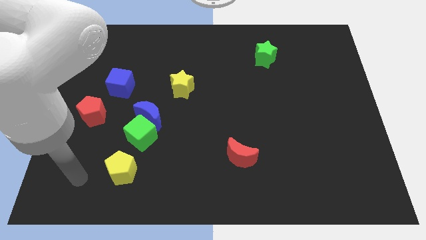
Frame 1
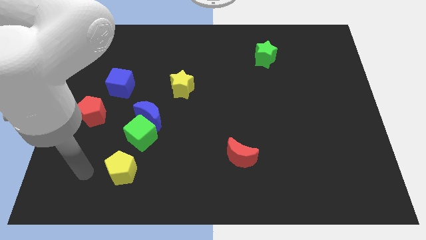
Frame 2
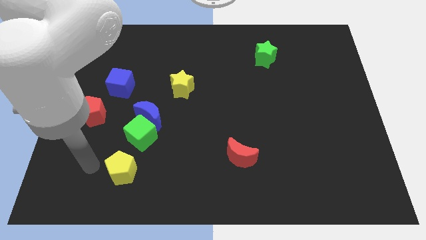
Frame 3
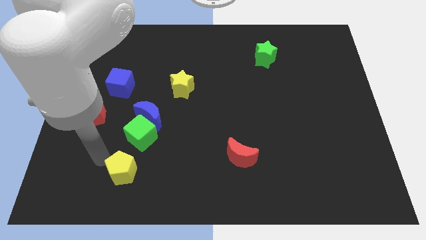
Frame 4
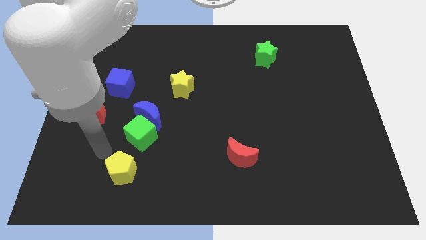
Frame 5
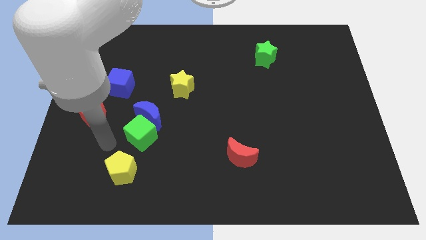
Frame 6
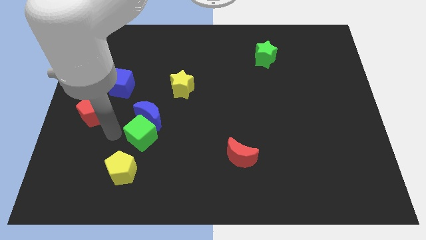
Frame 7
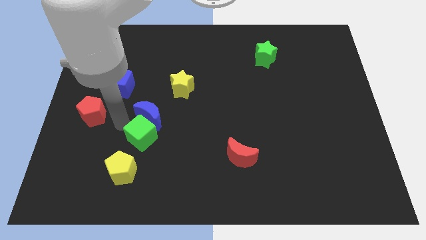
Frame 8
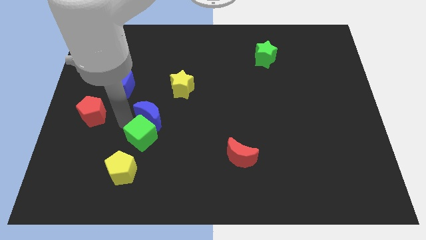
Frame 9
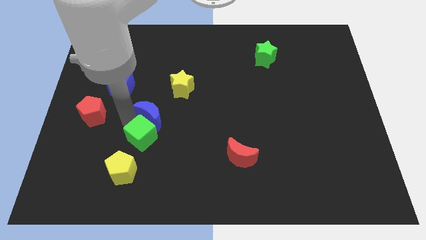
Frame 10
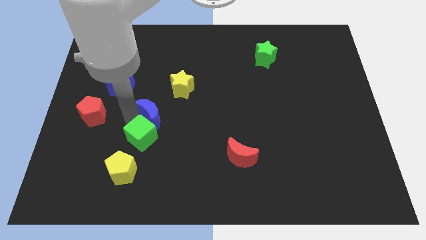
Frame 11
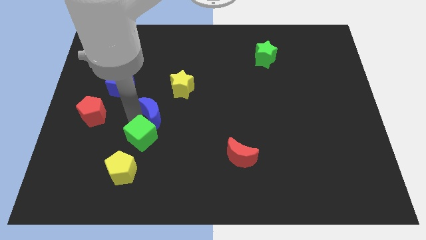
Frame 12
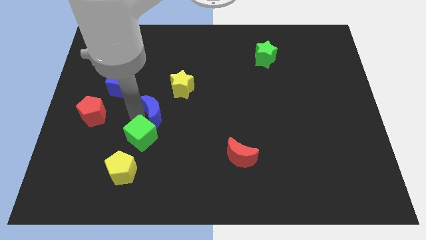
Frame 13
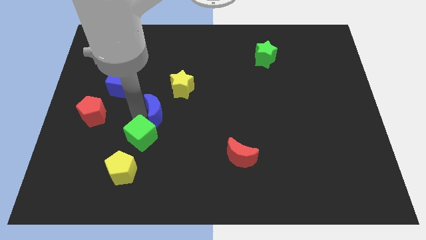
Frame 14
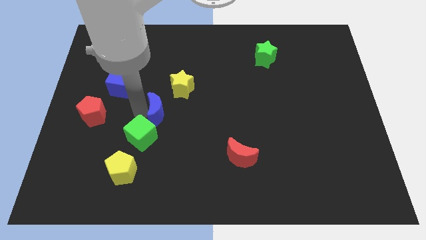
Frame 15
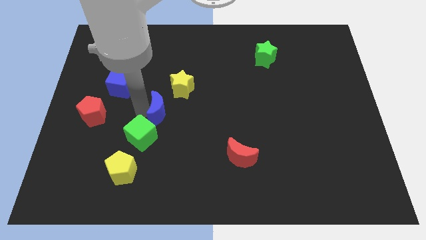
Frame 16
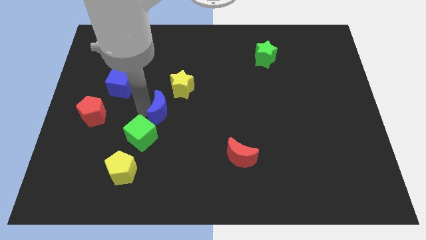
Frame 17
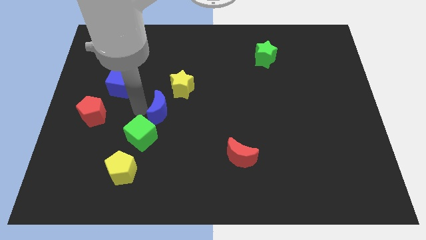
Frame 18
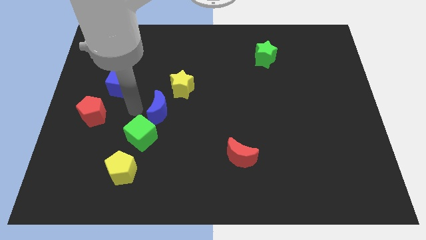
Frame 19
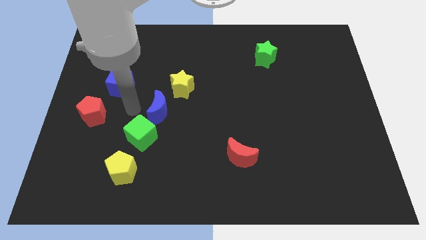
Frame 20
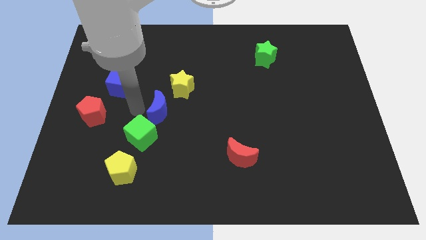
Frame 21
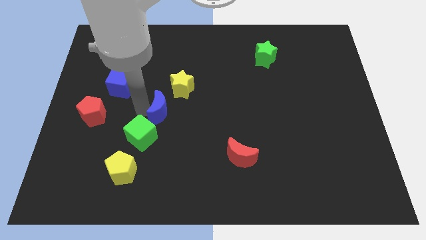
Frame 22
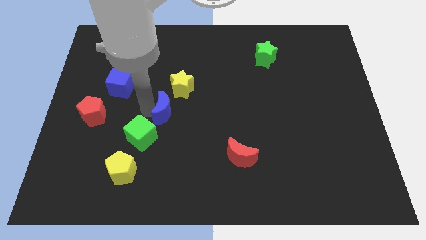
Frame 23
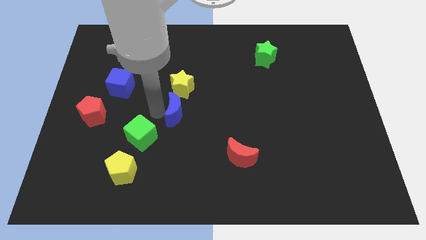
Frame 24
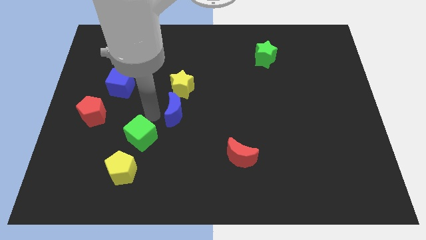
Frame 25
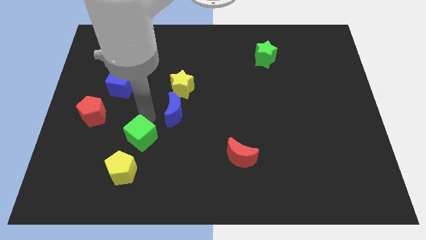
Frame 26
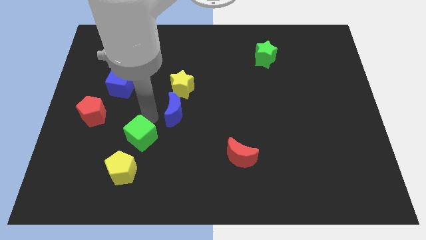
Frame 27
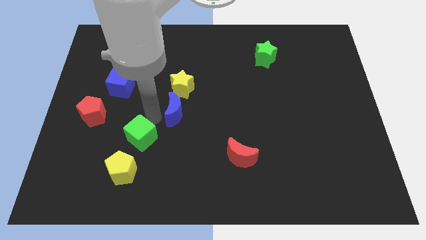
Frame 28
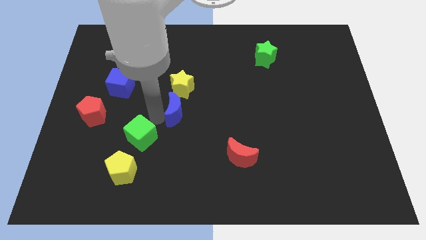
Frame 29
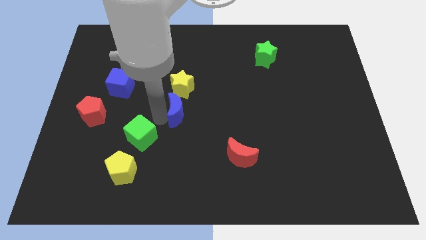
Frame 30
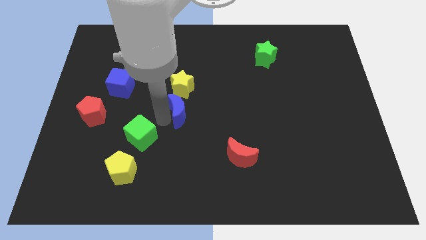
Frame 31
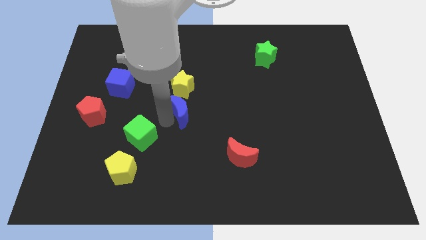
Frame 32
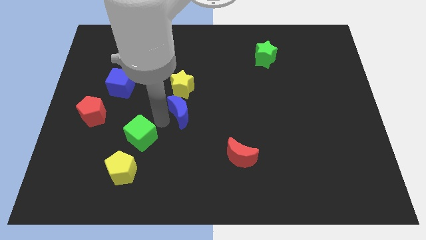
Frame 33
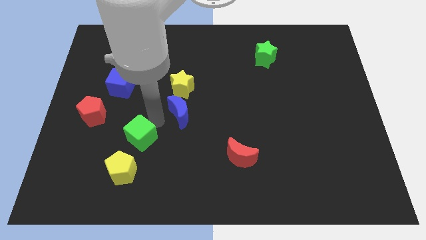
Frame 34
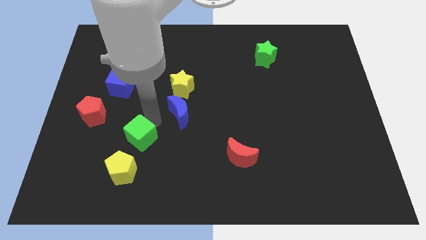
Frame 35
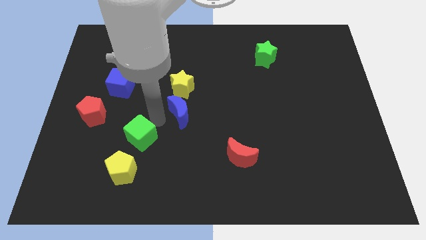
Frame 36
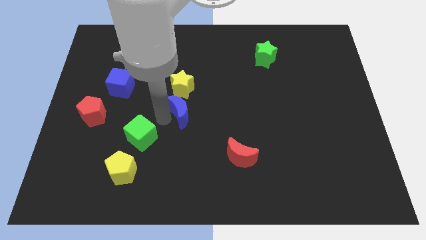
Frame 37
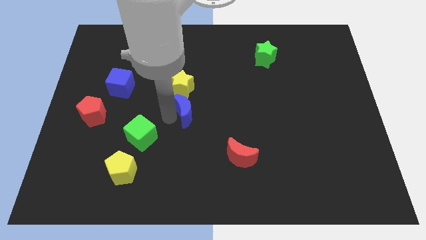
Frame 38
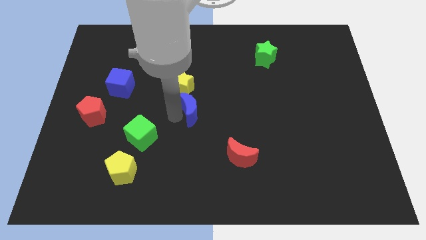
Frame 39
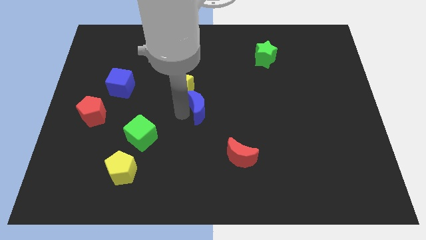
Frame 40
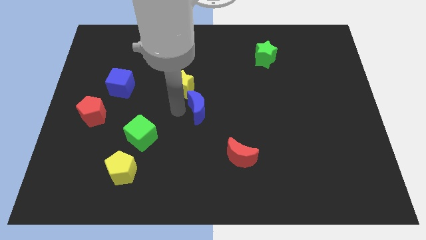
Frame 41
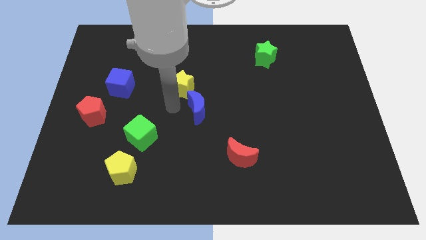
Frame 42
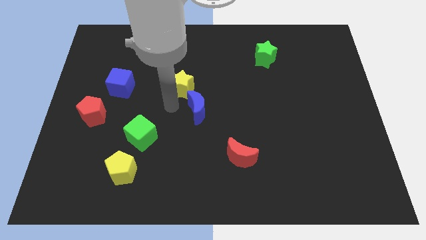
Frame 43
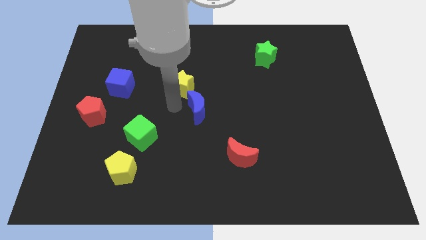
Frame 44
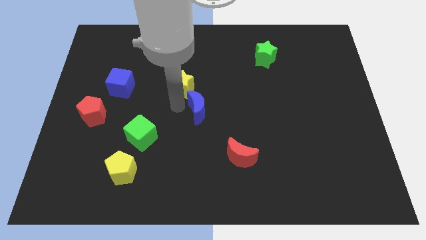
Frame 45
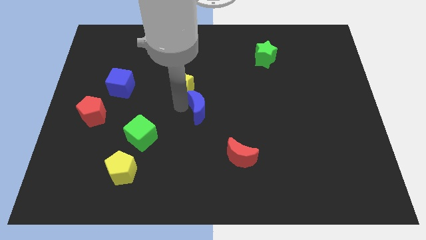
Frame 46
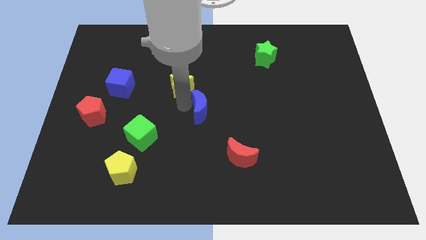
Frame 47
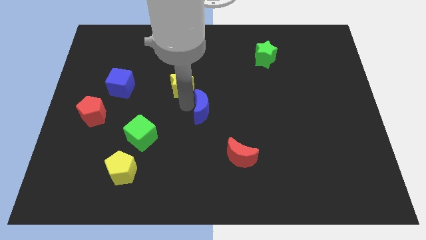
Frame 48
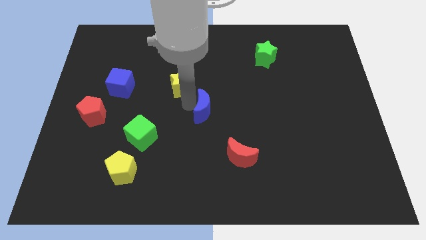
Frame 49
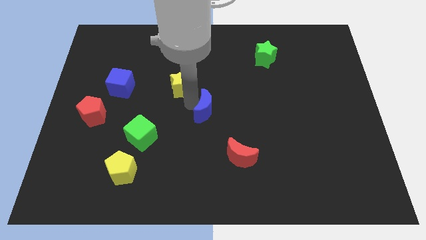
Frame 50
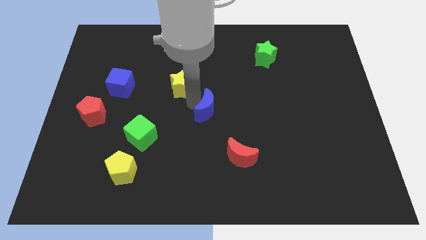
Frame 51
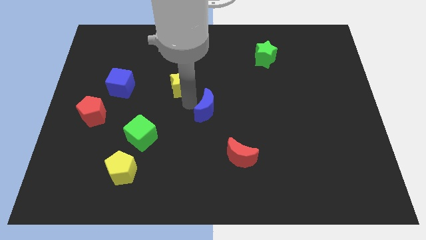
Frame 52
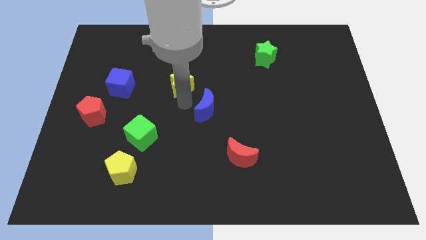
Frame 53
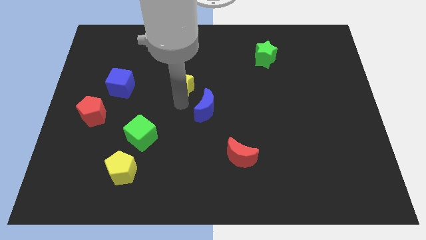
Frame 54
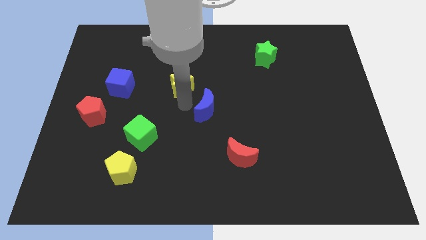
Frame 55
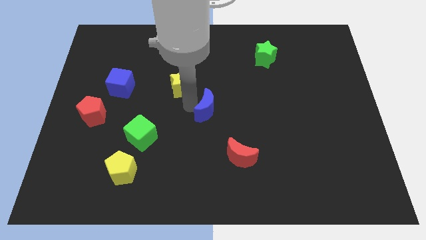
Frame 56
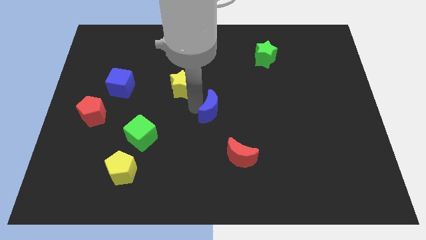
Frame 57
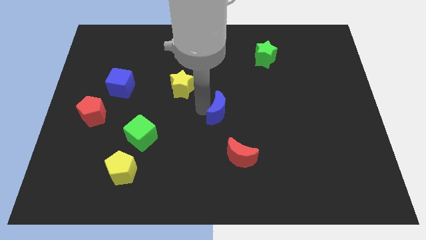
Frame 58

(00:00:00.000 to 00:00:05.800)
move the blue moon to the top side of the red moon
